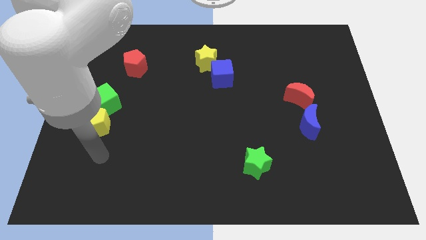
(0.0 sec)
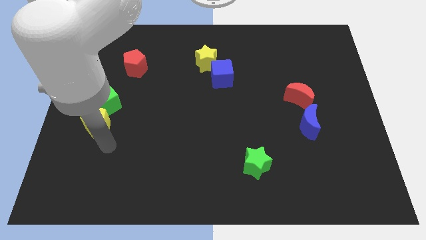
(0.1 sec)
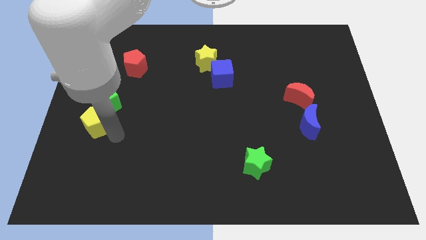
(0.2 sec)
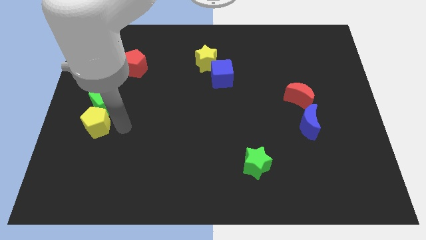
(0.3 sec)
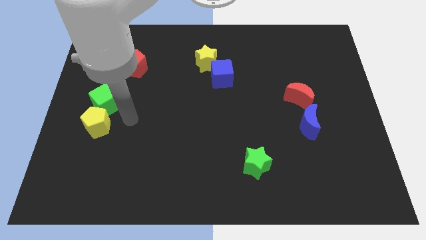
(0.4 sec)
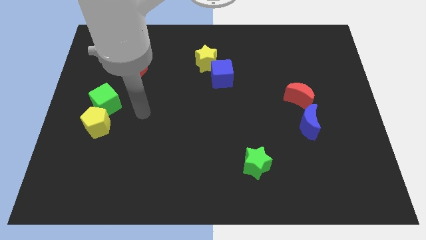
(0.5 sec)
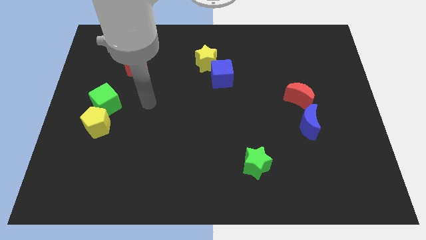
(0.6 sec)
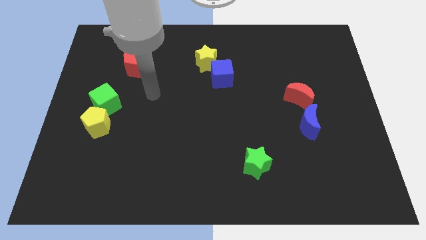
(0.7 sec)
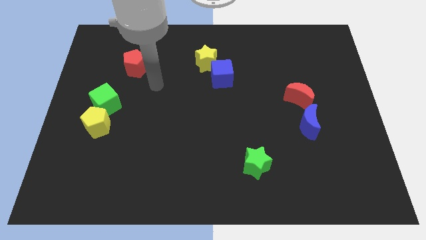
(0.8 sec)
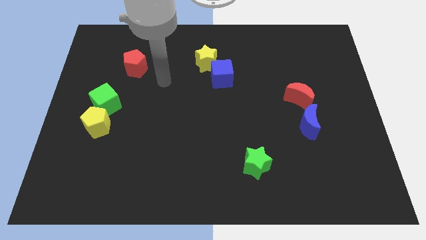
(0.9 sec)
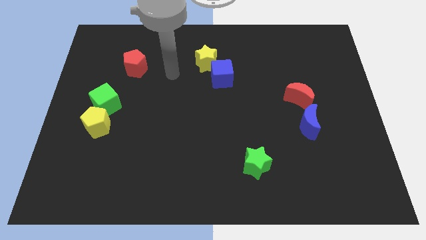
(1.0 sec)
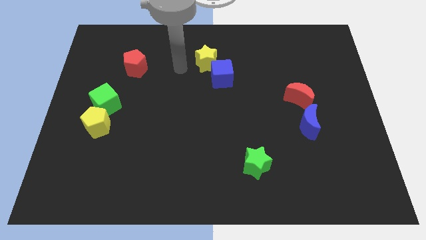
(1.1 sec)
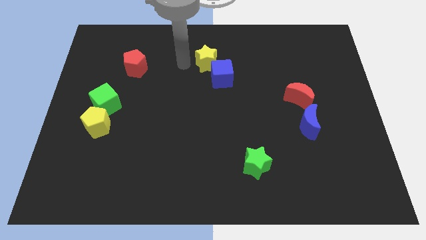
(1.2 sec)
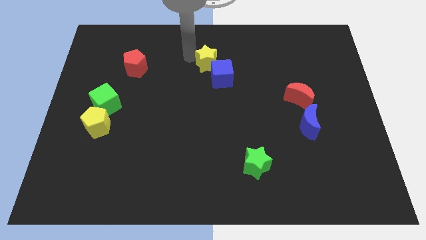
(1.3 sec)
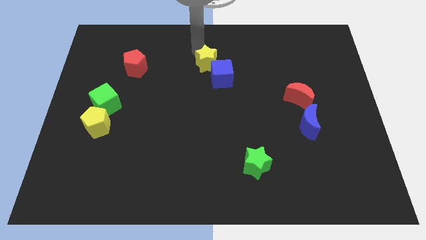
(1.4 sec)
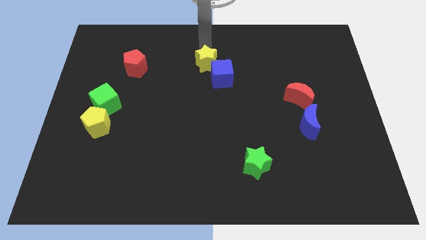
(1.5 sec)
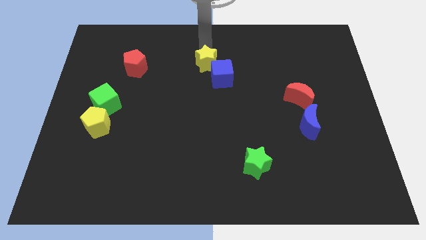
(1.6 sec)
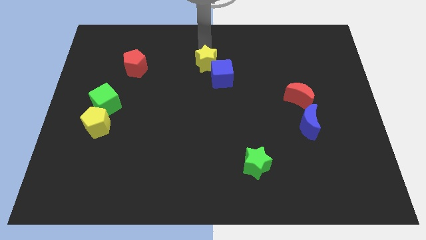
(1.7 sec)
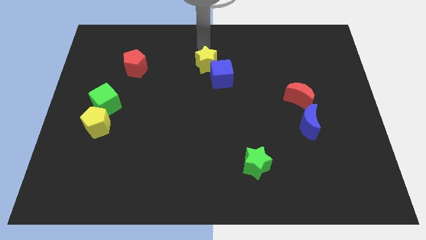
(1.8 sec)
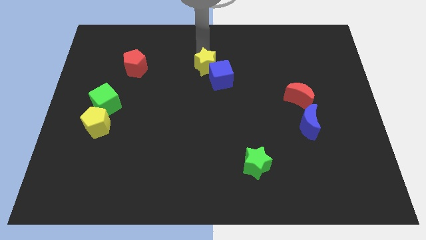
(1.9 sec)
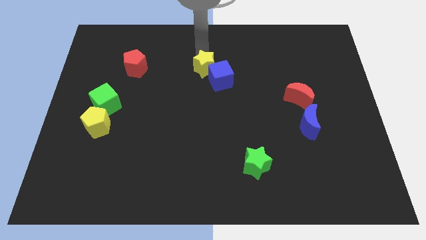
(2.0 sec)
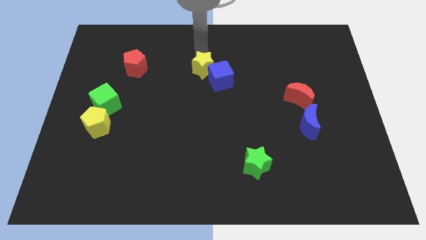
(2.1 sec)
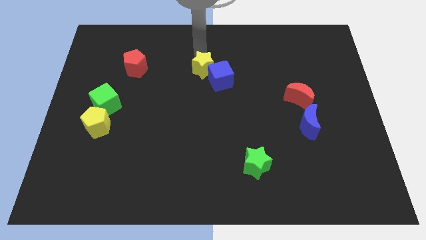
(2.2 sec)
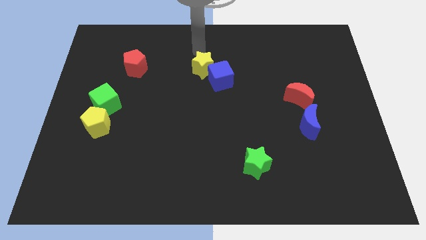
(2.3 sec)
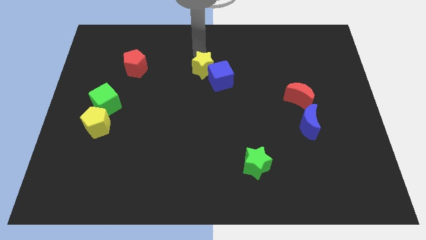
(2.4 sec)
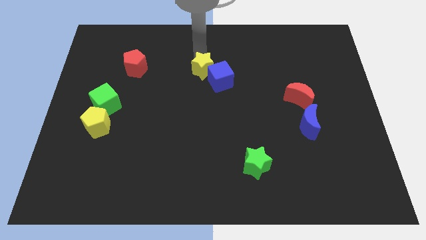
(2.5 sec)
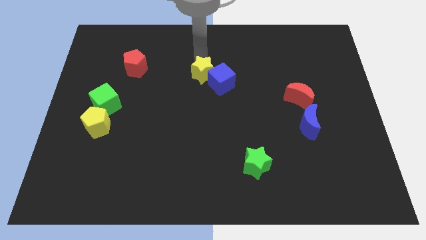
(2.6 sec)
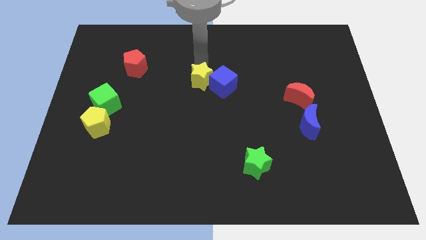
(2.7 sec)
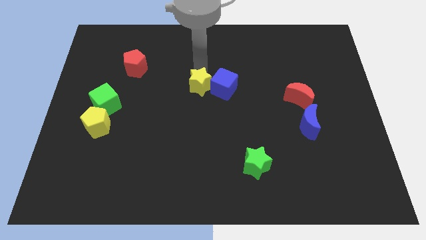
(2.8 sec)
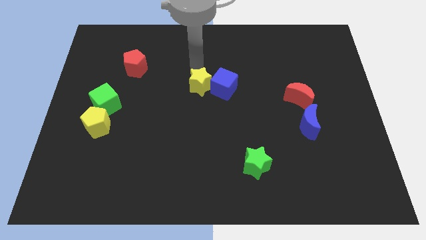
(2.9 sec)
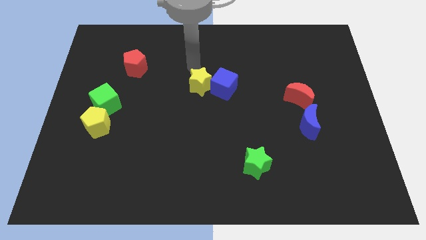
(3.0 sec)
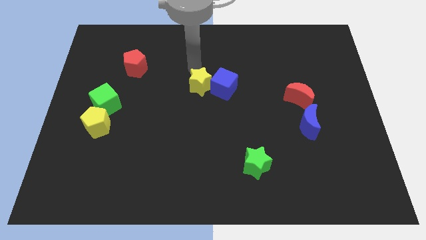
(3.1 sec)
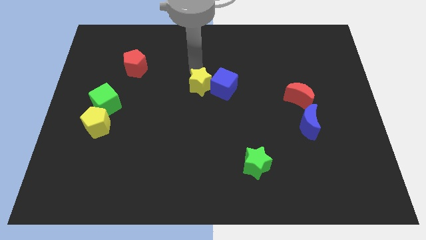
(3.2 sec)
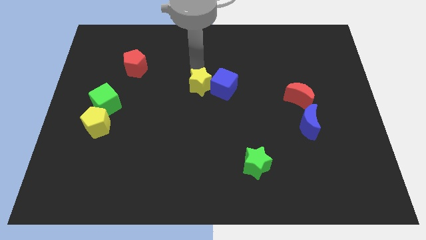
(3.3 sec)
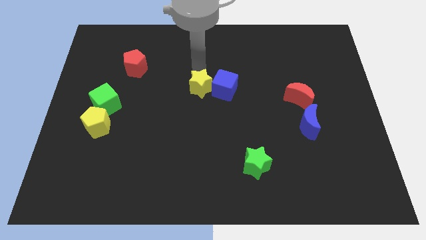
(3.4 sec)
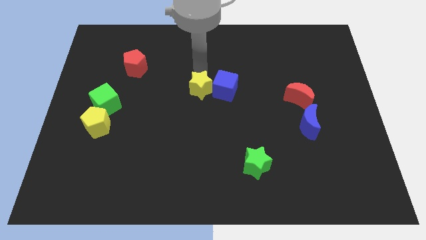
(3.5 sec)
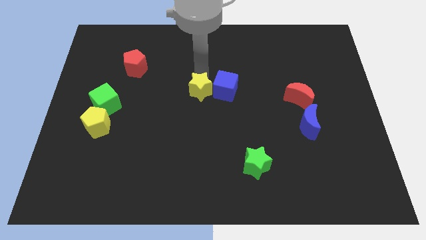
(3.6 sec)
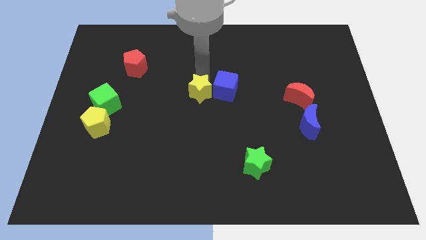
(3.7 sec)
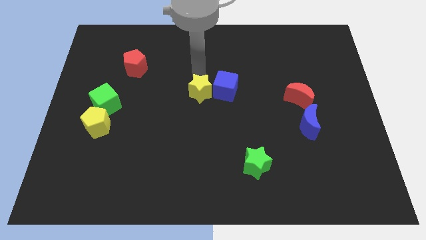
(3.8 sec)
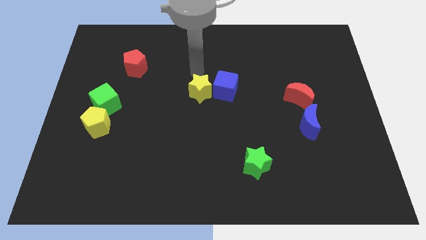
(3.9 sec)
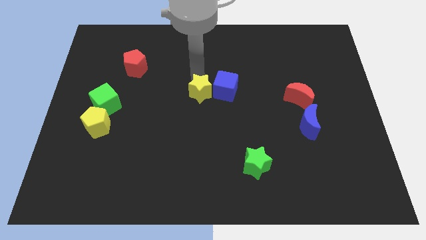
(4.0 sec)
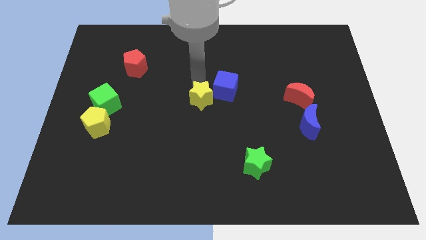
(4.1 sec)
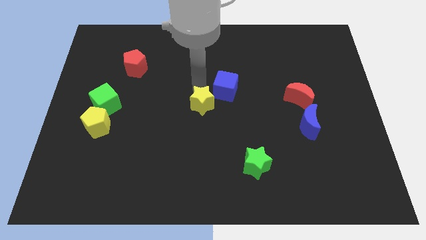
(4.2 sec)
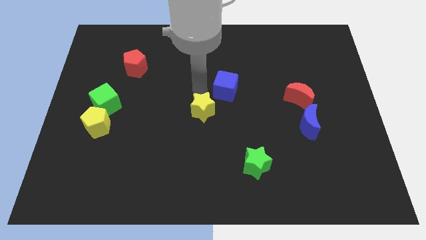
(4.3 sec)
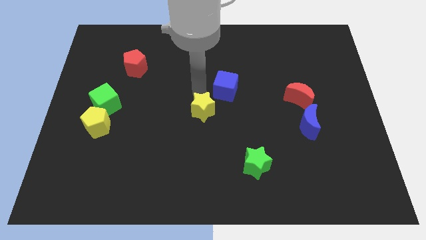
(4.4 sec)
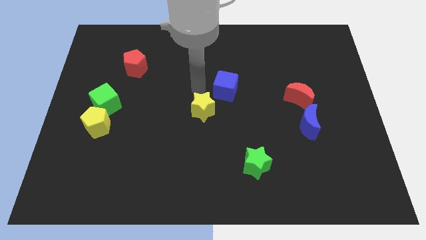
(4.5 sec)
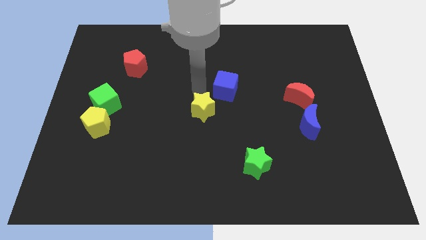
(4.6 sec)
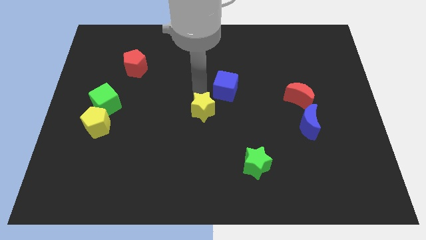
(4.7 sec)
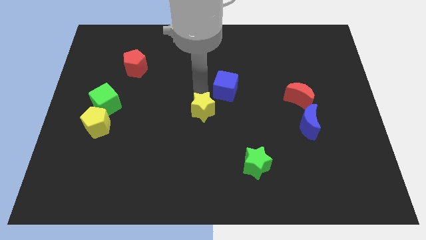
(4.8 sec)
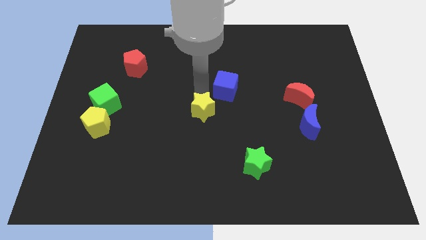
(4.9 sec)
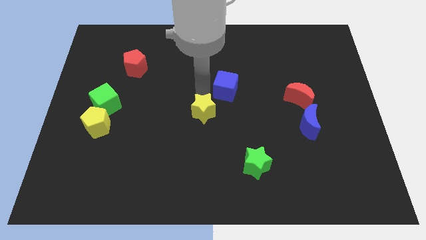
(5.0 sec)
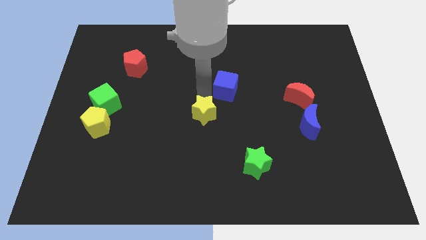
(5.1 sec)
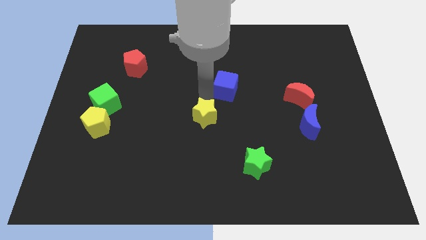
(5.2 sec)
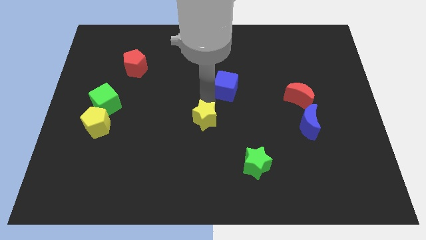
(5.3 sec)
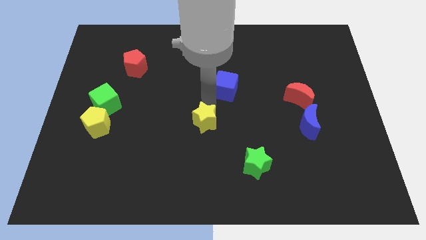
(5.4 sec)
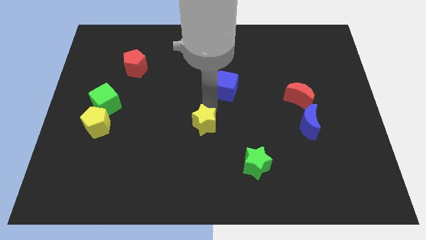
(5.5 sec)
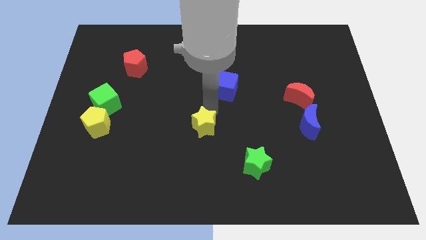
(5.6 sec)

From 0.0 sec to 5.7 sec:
slide the yellow star down

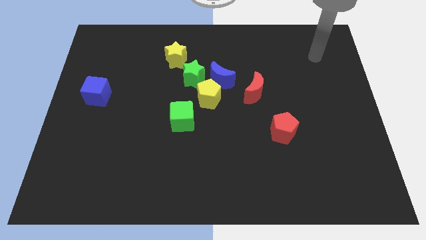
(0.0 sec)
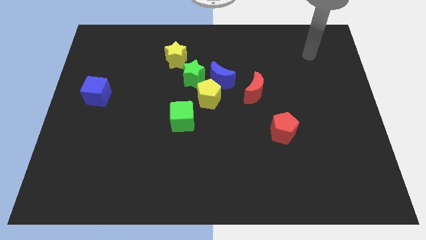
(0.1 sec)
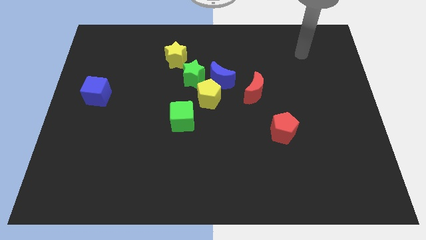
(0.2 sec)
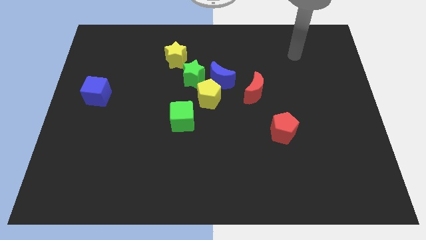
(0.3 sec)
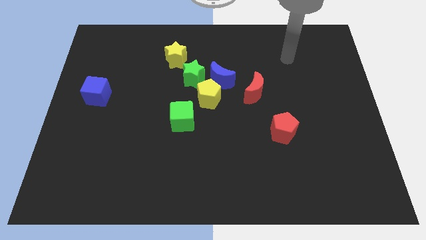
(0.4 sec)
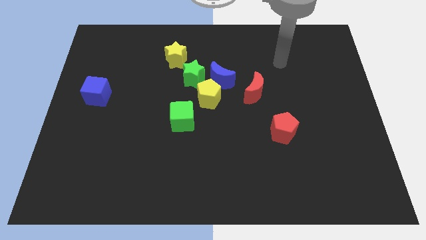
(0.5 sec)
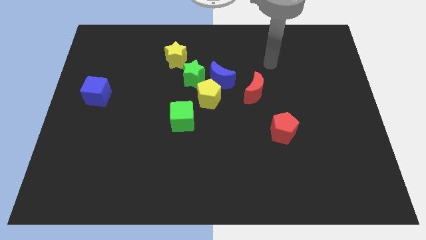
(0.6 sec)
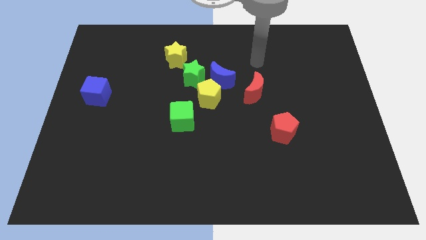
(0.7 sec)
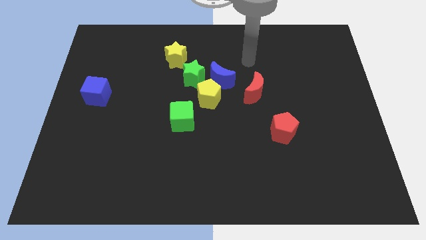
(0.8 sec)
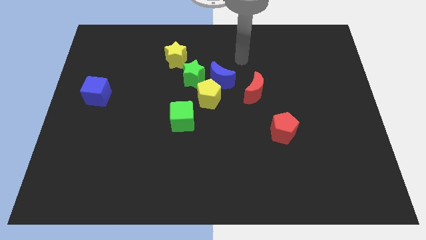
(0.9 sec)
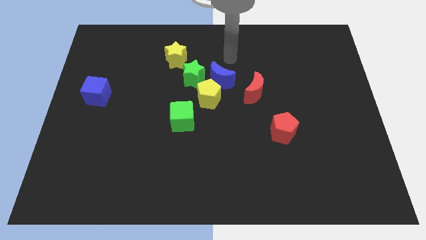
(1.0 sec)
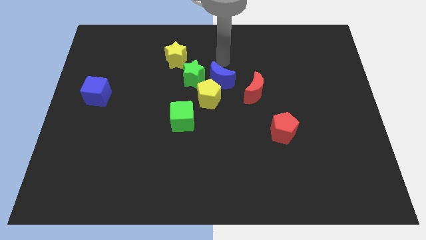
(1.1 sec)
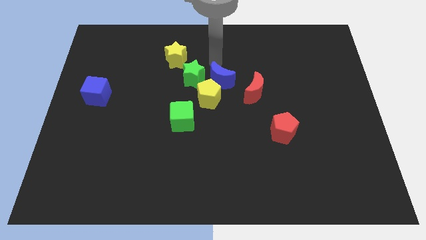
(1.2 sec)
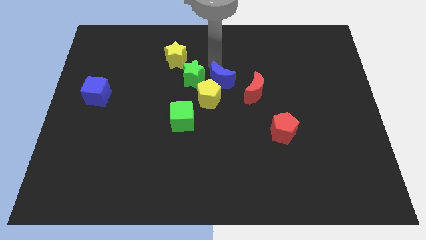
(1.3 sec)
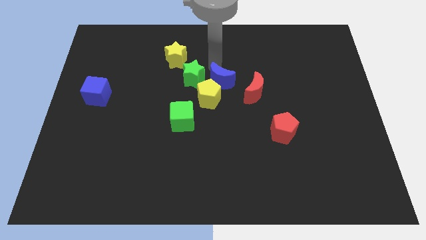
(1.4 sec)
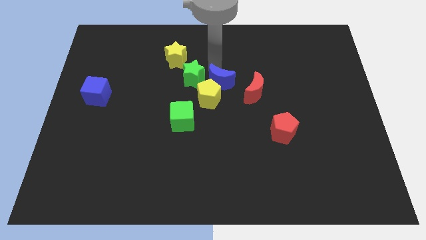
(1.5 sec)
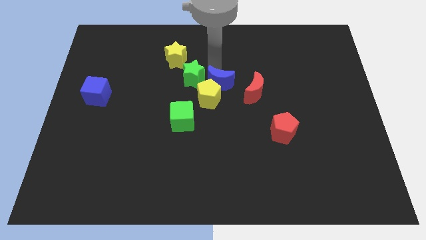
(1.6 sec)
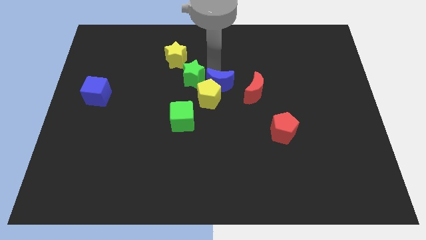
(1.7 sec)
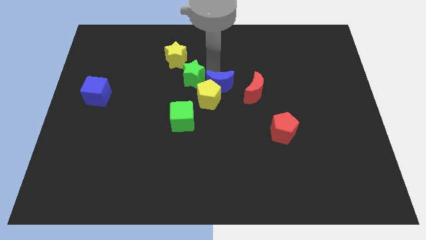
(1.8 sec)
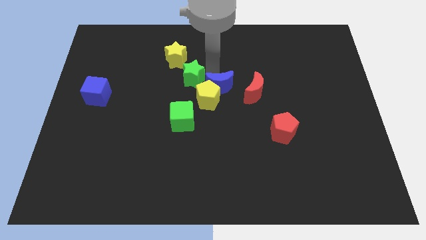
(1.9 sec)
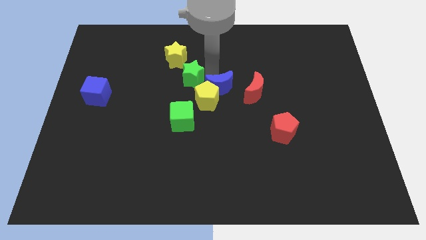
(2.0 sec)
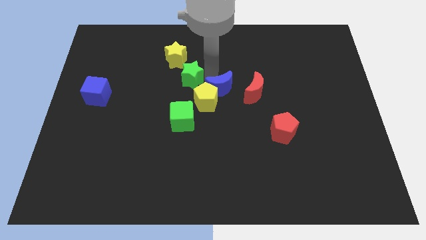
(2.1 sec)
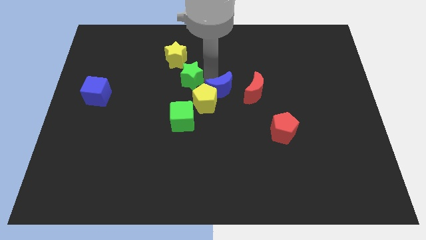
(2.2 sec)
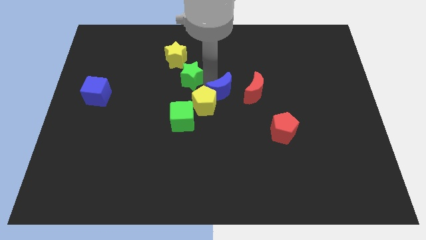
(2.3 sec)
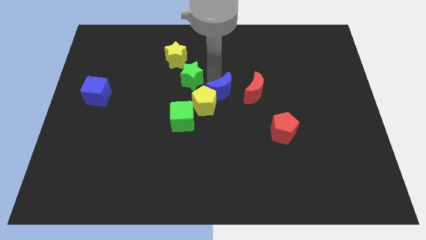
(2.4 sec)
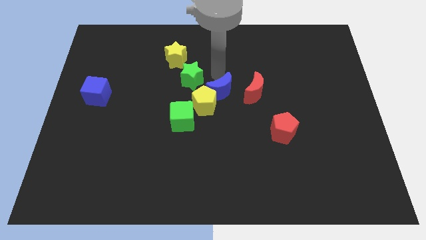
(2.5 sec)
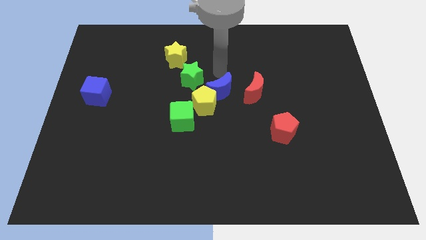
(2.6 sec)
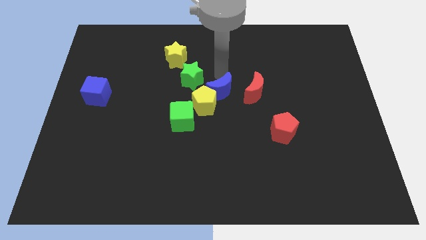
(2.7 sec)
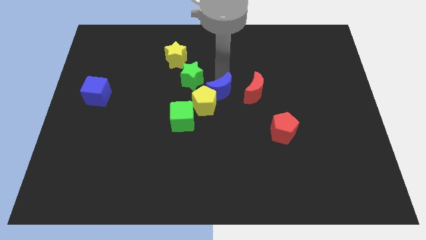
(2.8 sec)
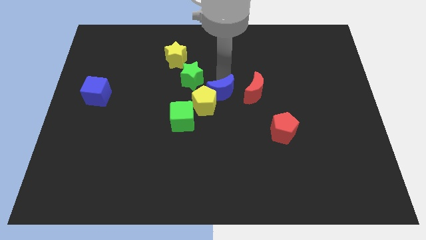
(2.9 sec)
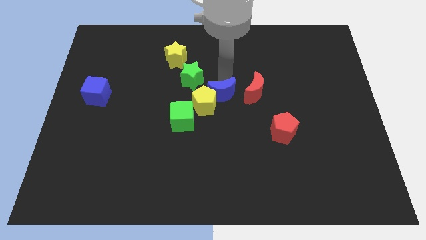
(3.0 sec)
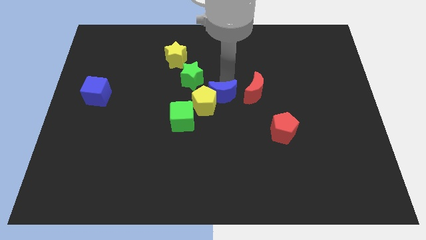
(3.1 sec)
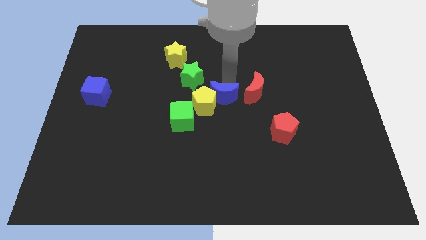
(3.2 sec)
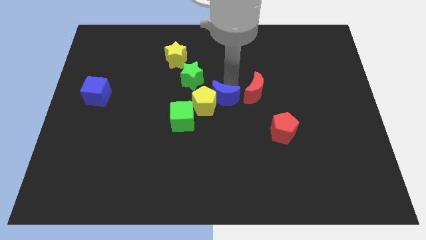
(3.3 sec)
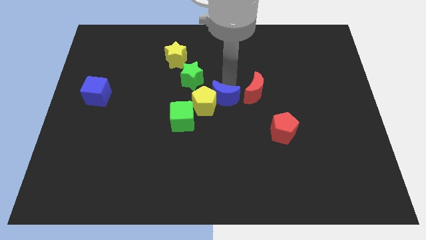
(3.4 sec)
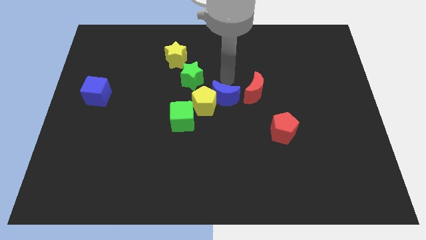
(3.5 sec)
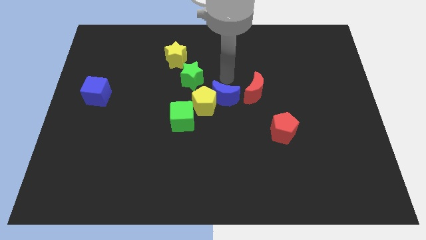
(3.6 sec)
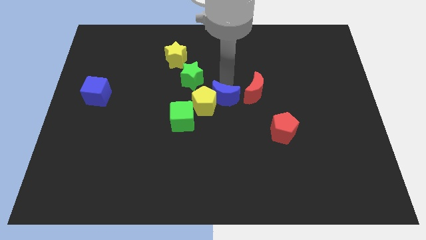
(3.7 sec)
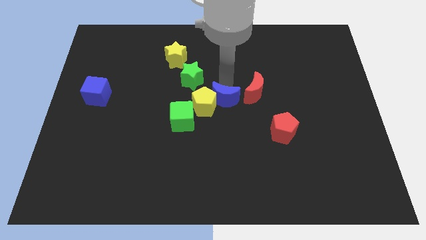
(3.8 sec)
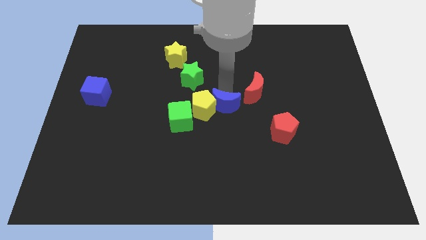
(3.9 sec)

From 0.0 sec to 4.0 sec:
move the blue moon somewhat downwards
